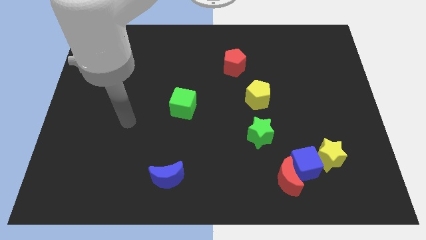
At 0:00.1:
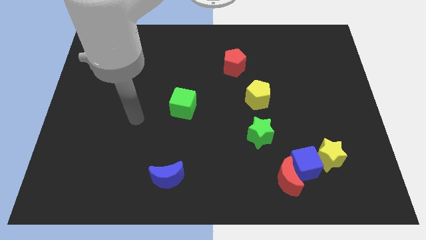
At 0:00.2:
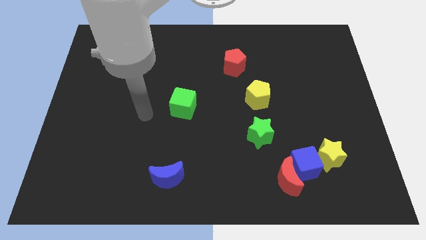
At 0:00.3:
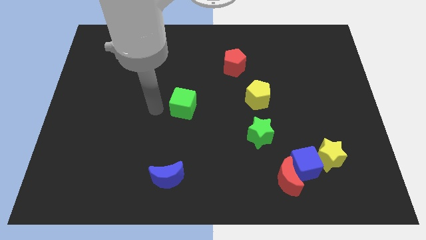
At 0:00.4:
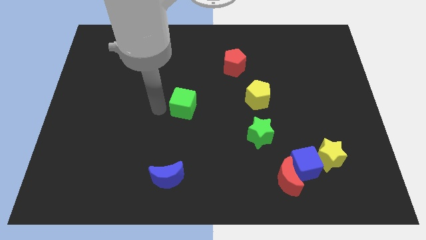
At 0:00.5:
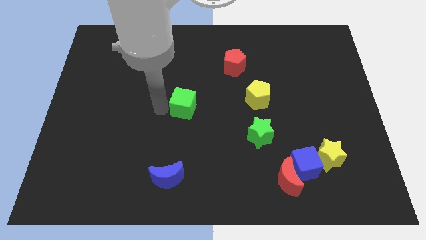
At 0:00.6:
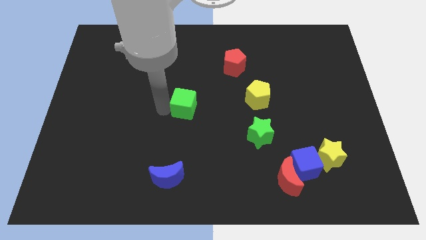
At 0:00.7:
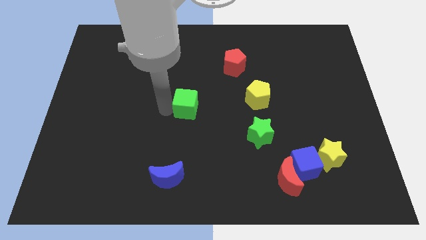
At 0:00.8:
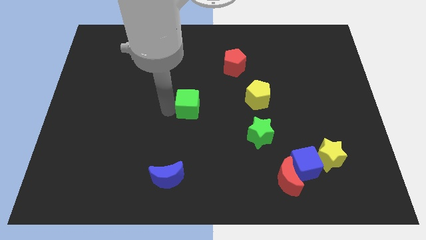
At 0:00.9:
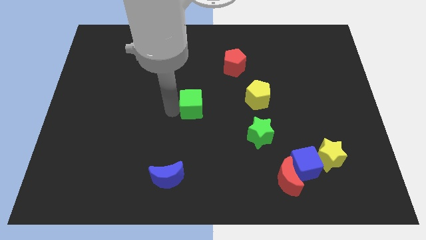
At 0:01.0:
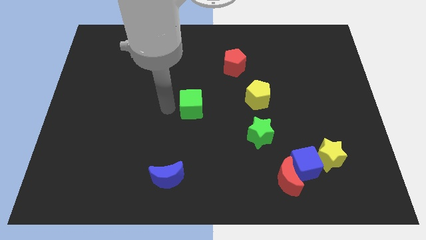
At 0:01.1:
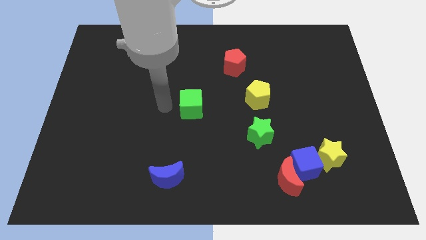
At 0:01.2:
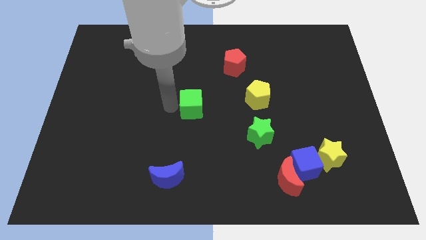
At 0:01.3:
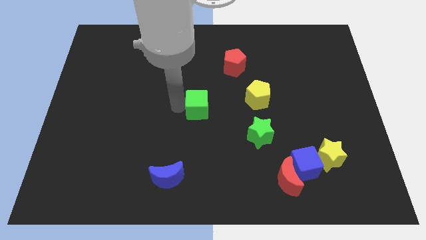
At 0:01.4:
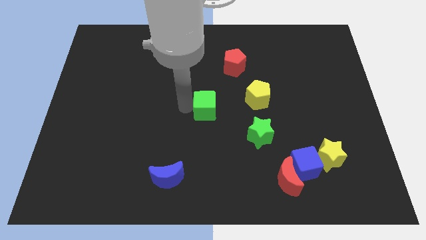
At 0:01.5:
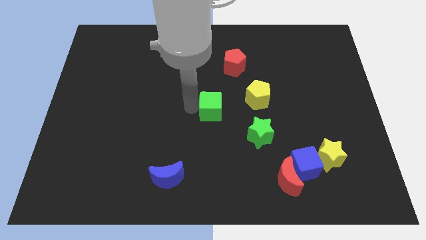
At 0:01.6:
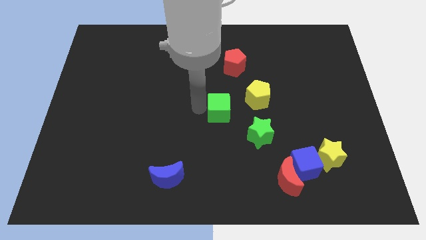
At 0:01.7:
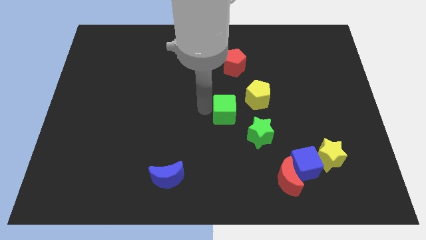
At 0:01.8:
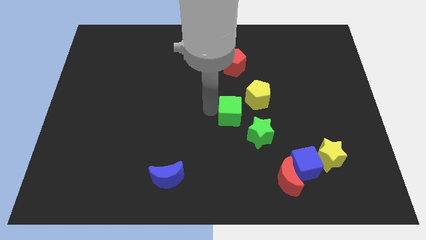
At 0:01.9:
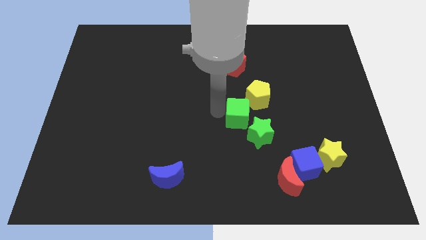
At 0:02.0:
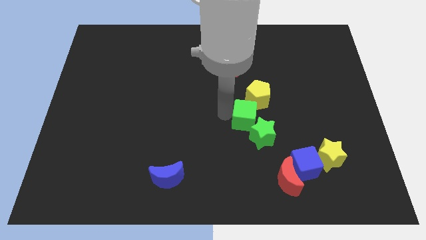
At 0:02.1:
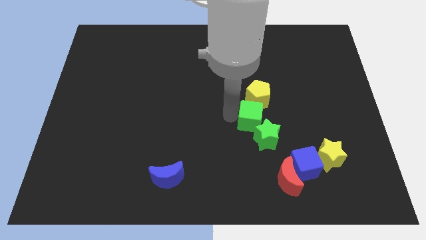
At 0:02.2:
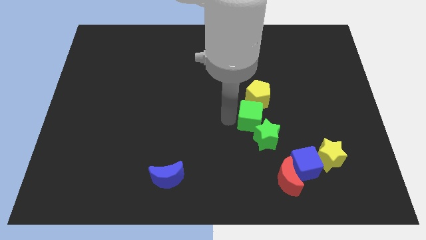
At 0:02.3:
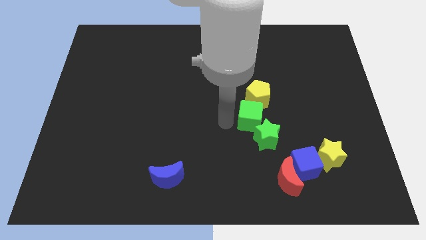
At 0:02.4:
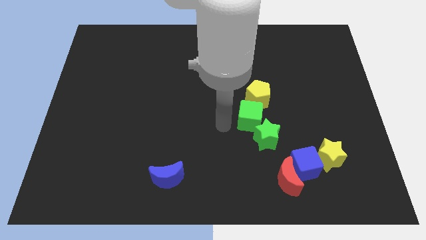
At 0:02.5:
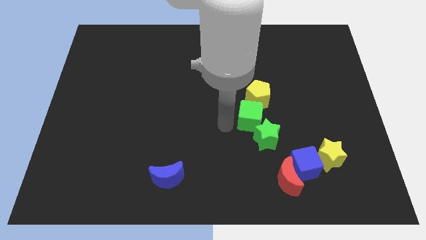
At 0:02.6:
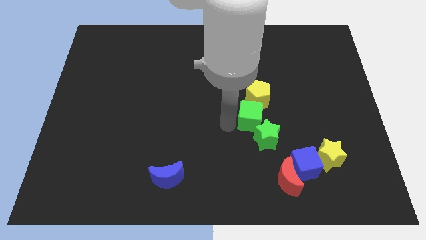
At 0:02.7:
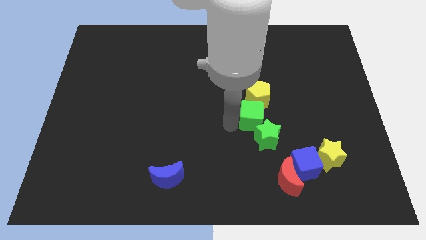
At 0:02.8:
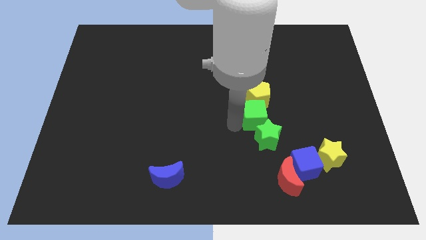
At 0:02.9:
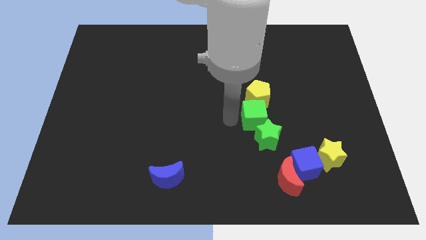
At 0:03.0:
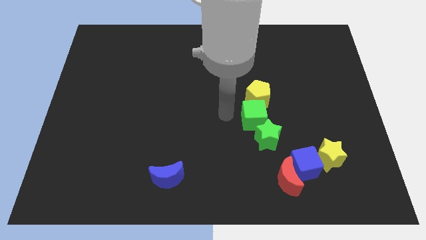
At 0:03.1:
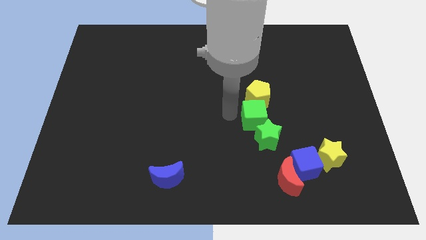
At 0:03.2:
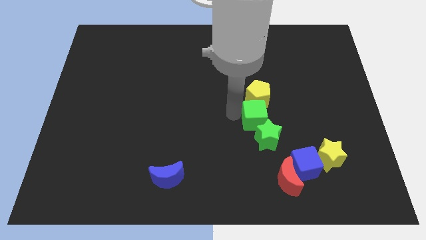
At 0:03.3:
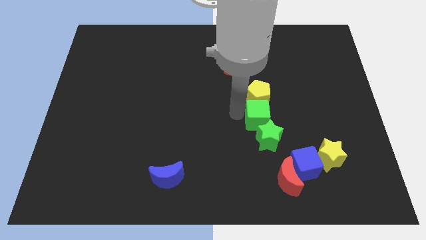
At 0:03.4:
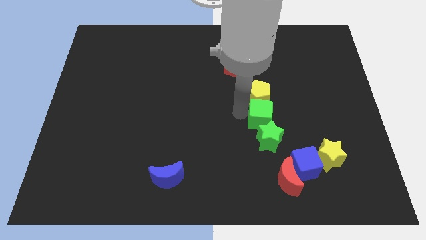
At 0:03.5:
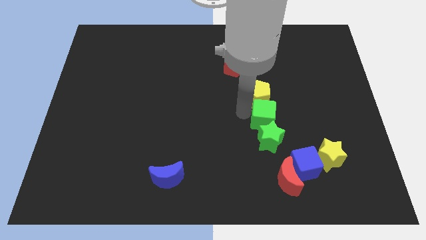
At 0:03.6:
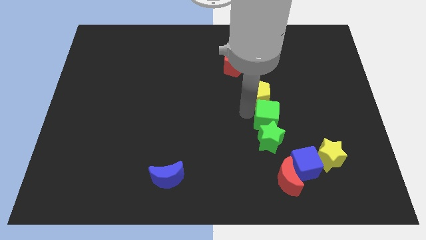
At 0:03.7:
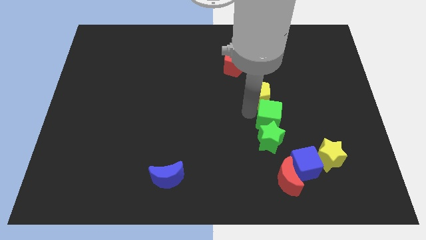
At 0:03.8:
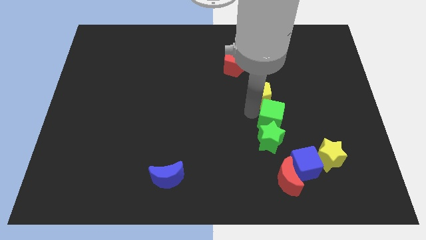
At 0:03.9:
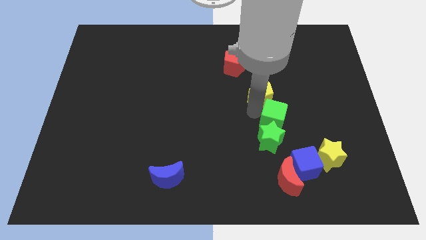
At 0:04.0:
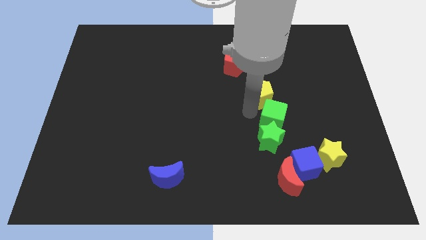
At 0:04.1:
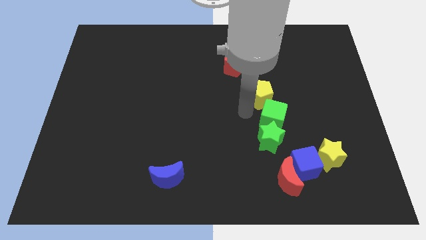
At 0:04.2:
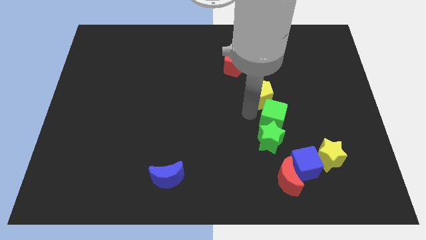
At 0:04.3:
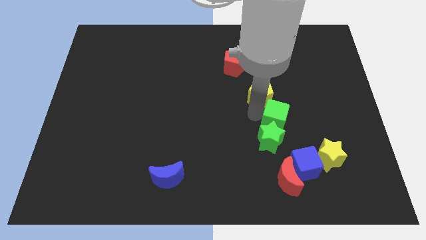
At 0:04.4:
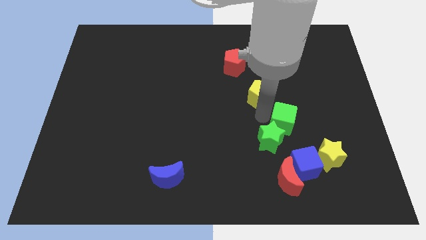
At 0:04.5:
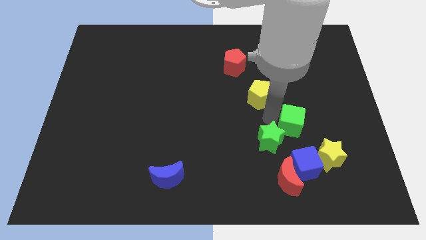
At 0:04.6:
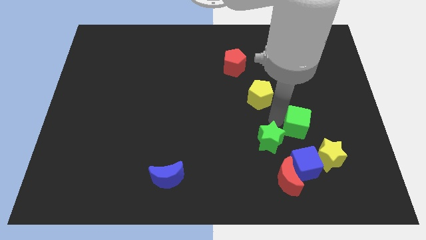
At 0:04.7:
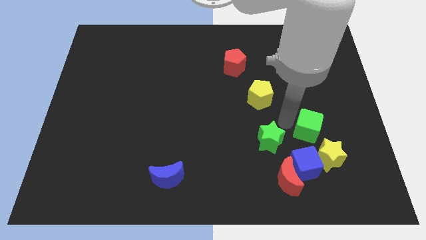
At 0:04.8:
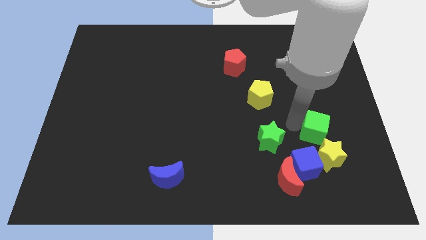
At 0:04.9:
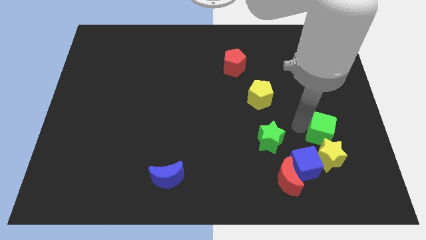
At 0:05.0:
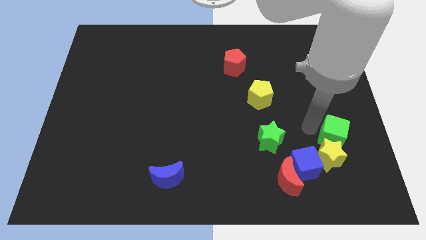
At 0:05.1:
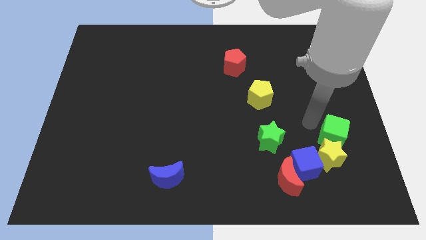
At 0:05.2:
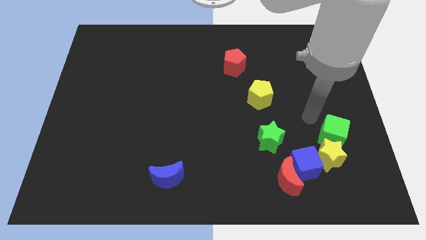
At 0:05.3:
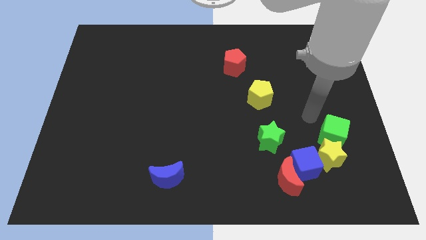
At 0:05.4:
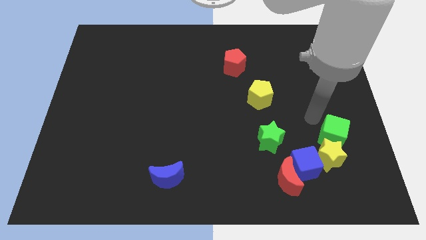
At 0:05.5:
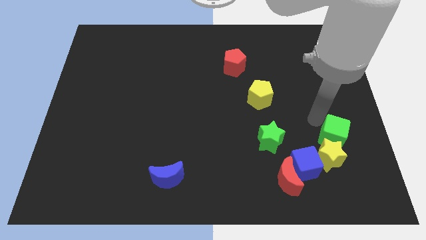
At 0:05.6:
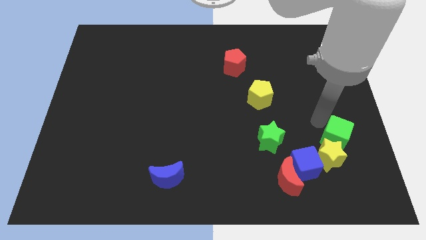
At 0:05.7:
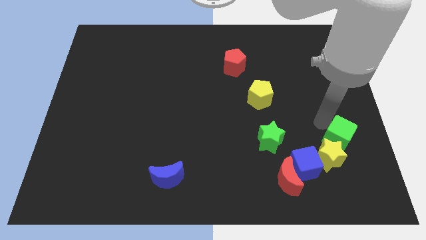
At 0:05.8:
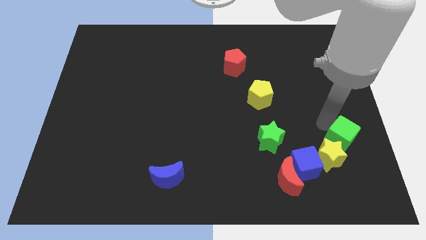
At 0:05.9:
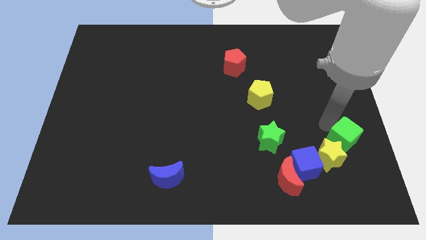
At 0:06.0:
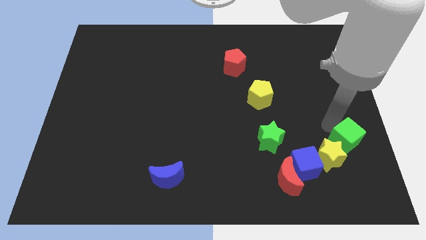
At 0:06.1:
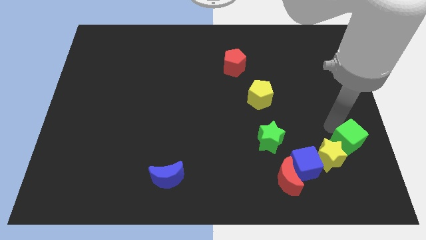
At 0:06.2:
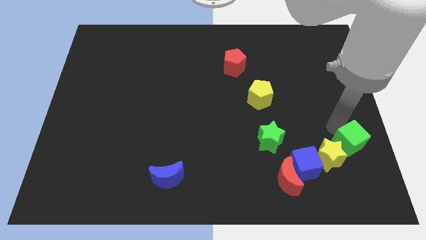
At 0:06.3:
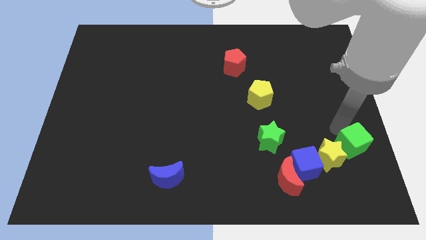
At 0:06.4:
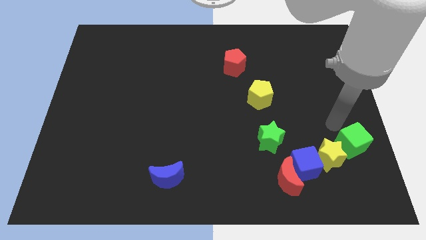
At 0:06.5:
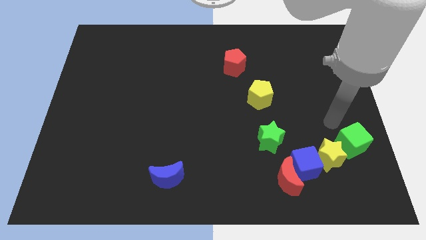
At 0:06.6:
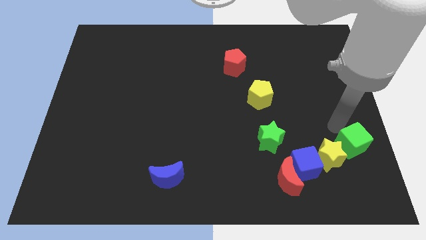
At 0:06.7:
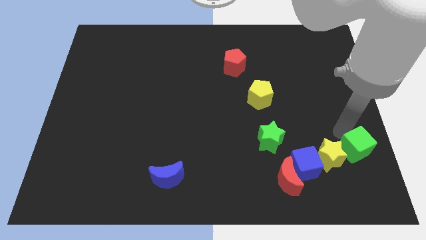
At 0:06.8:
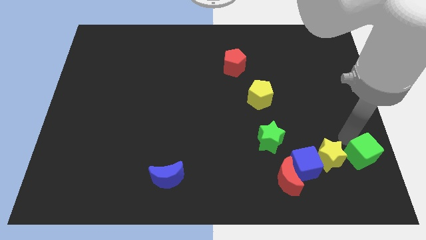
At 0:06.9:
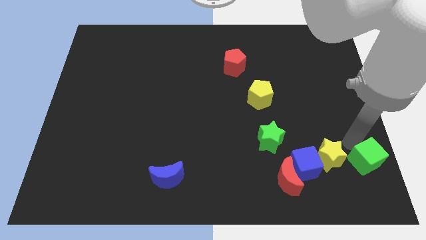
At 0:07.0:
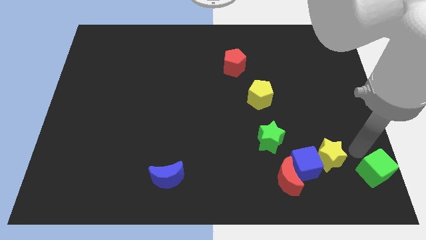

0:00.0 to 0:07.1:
move the green cube to the bottom right
